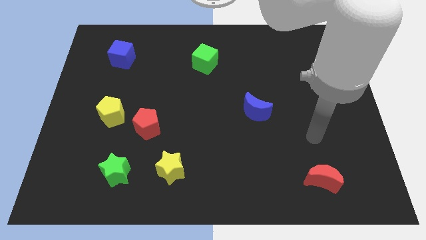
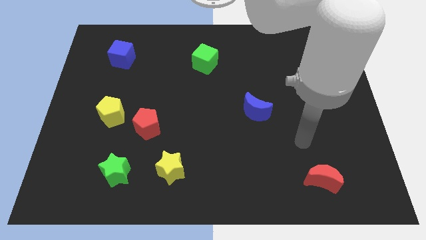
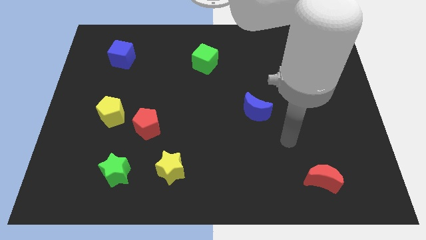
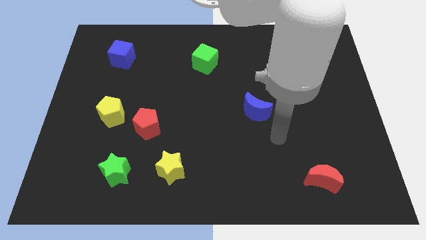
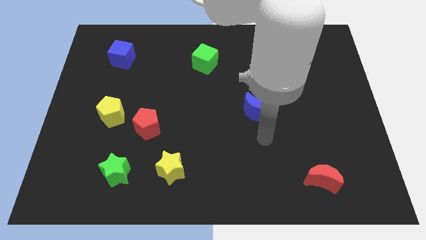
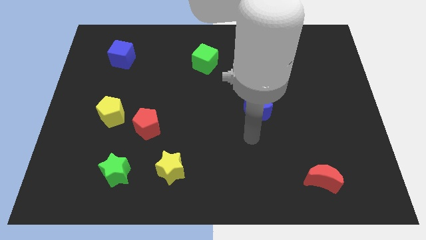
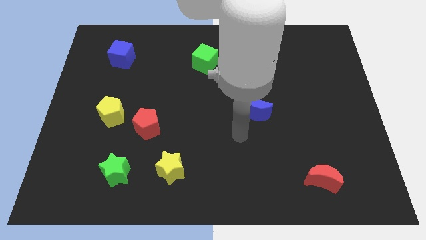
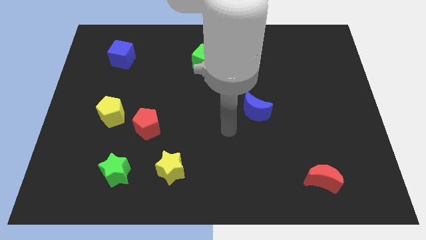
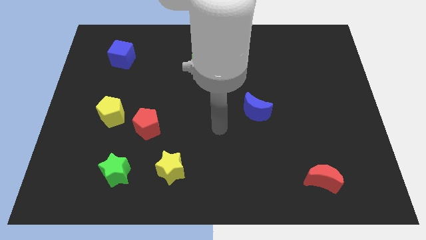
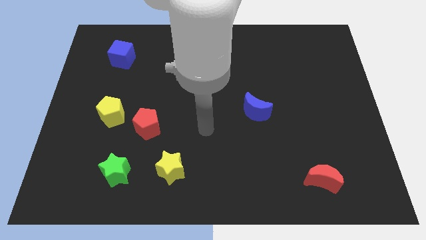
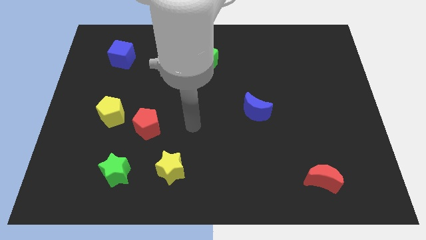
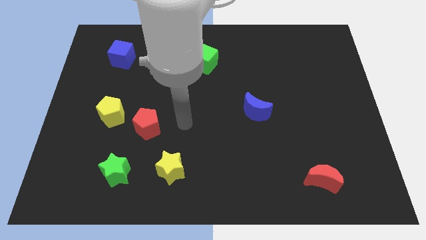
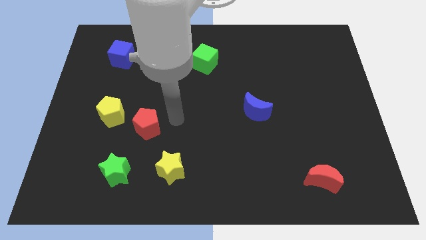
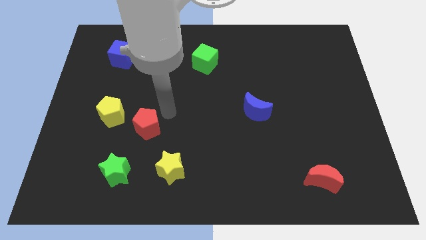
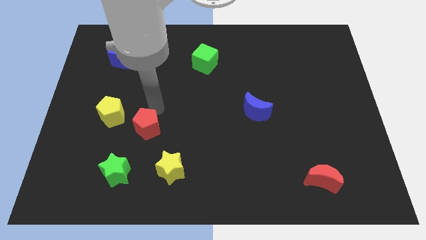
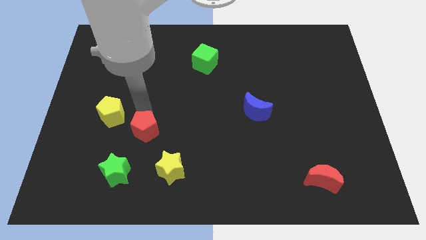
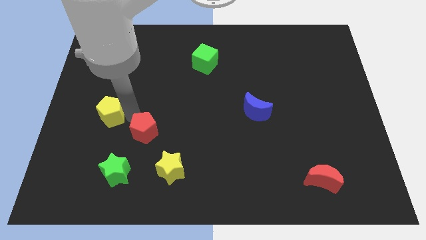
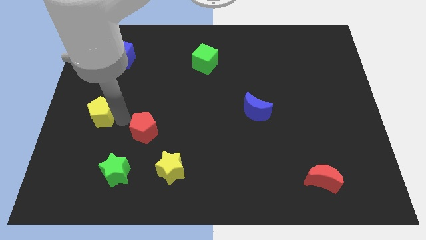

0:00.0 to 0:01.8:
pull the red pentagon apart from the yellow pentagon

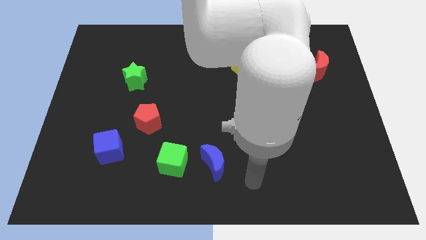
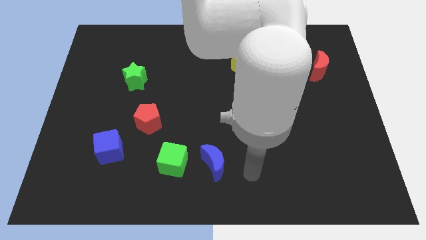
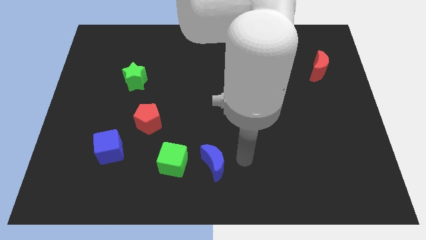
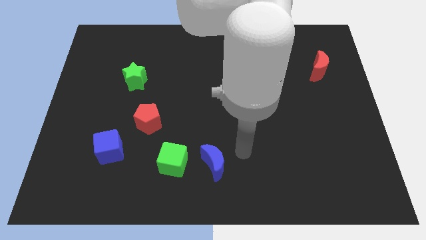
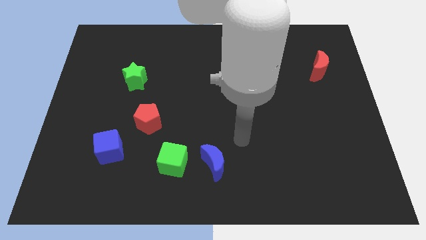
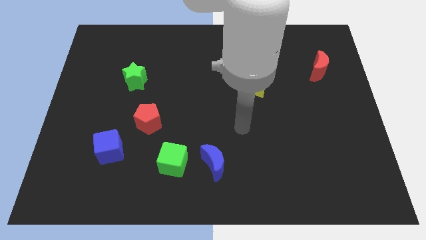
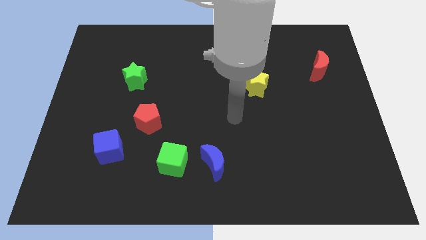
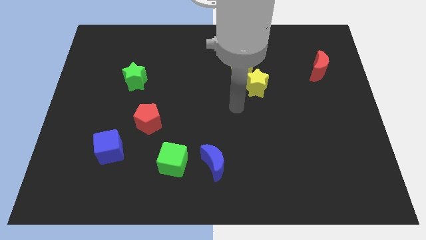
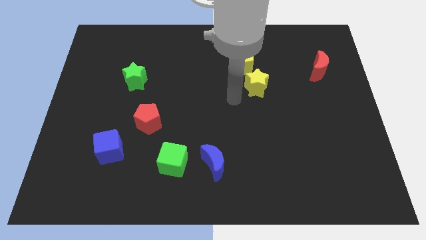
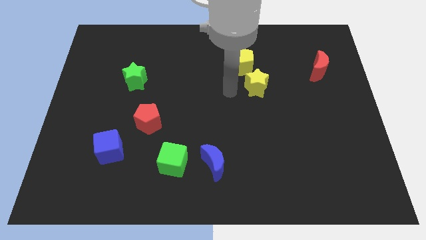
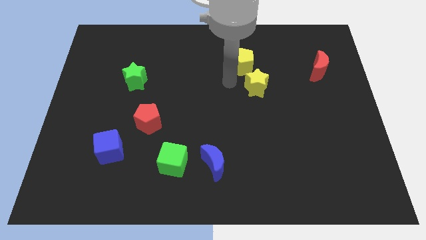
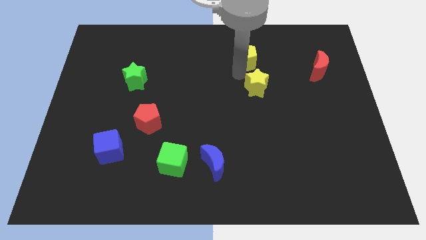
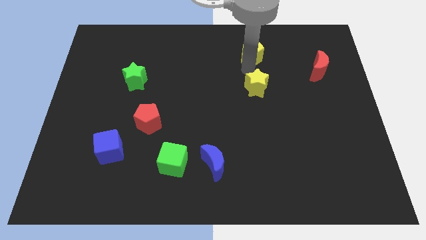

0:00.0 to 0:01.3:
move the yellow star away from the yellow pentagon

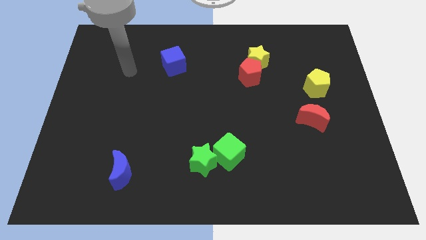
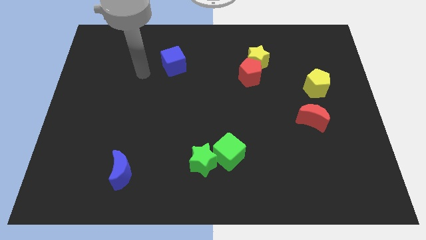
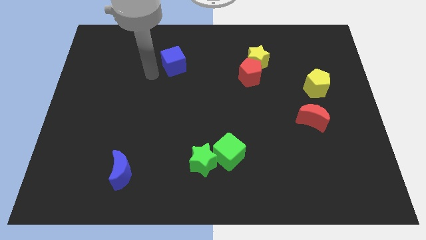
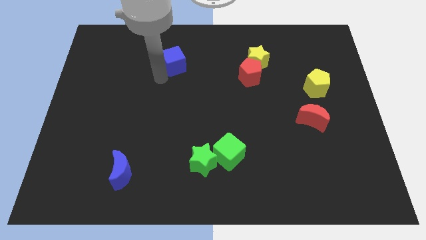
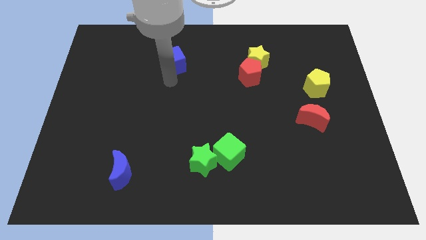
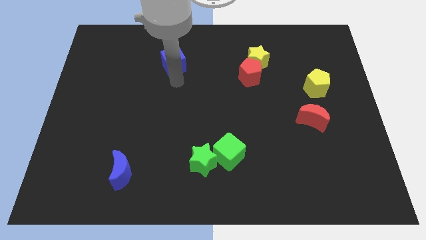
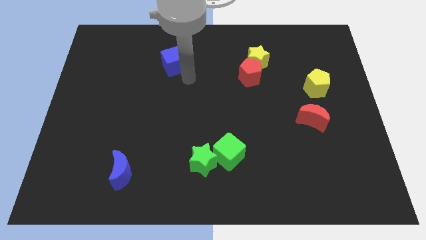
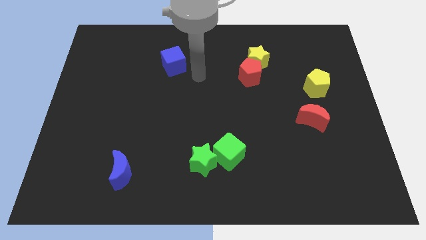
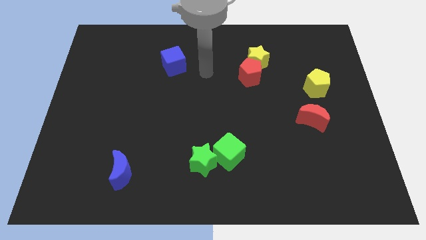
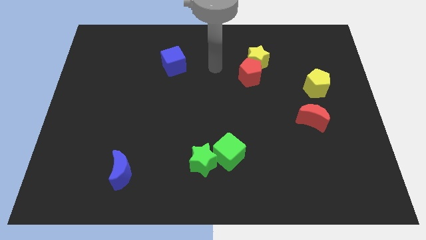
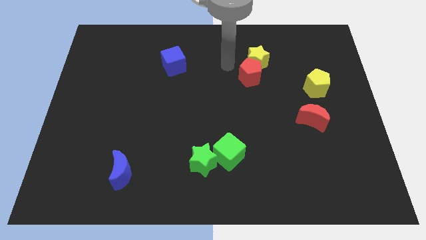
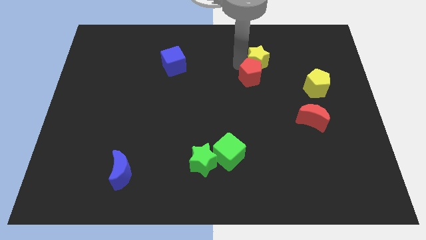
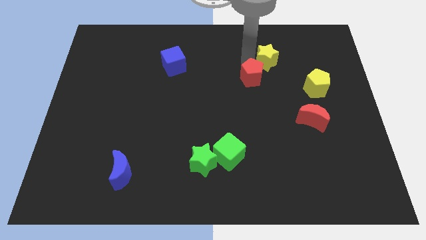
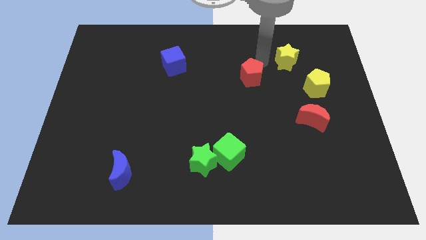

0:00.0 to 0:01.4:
separate the red pentagon from the yellow star

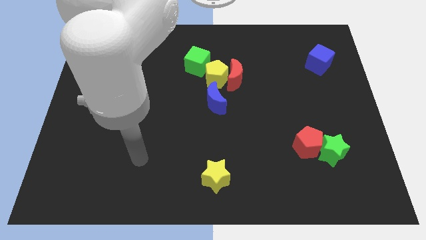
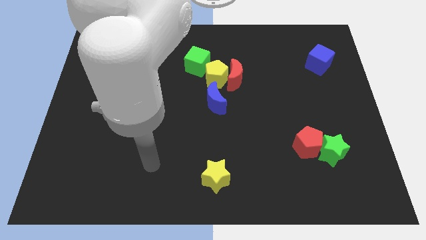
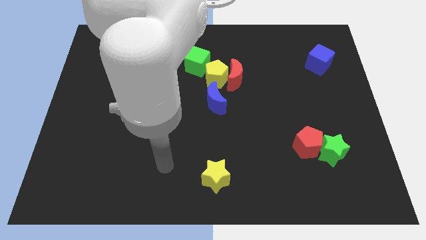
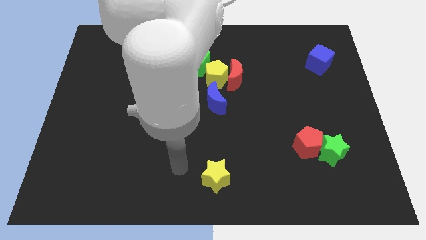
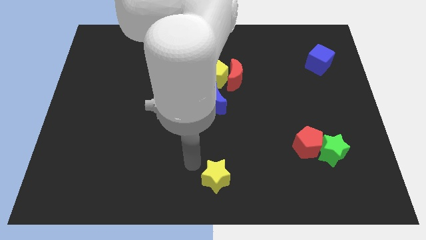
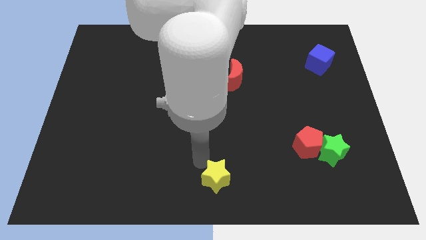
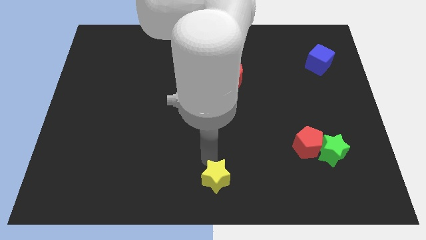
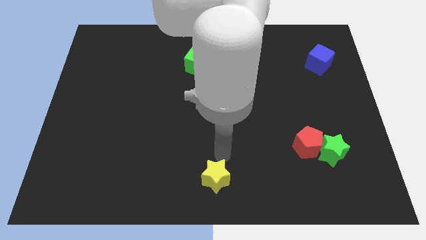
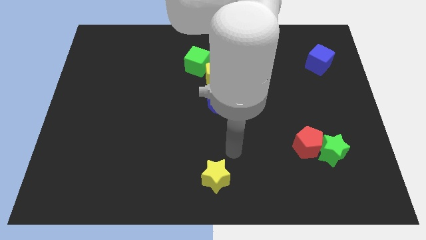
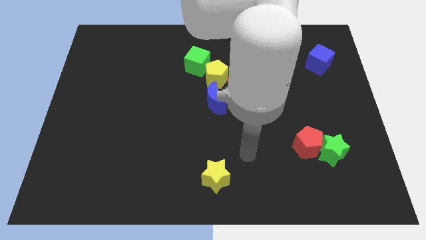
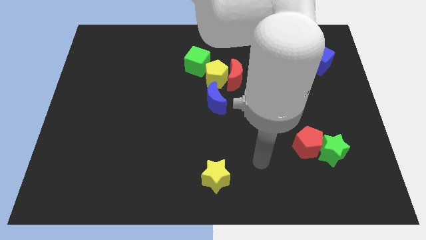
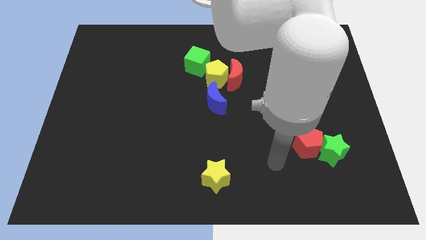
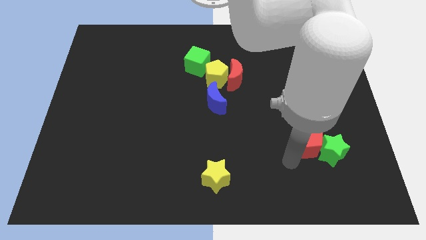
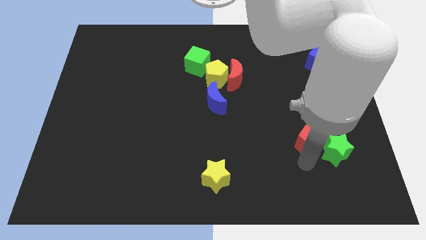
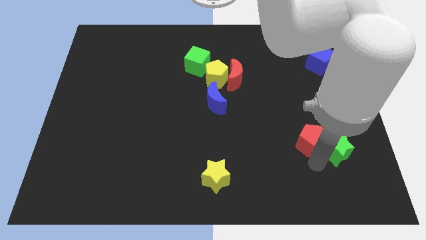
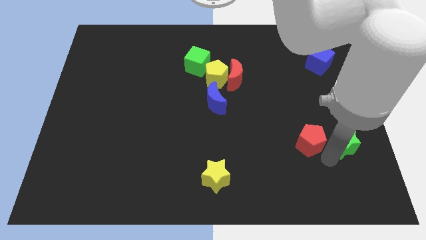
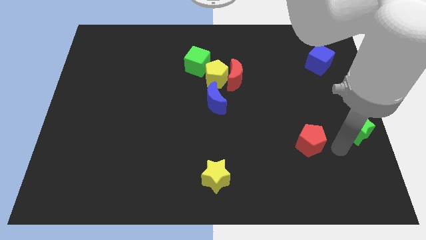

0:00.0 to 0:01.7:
separate the red pentagon from the green star

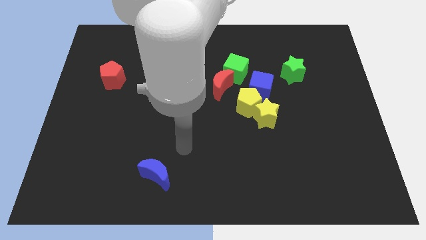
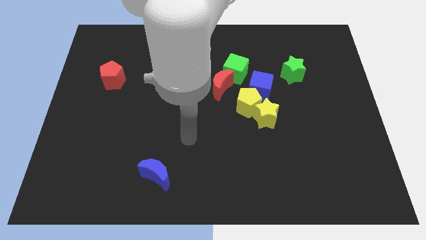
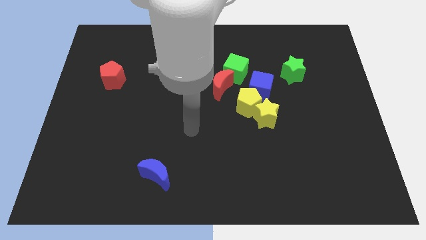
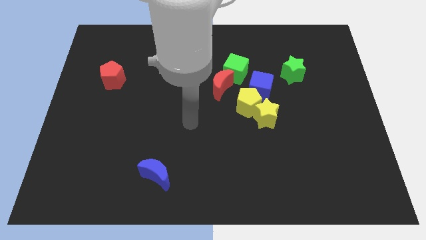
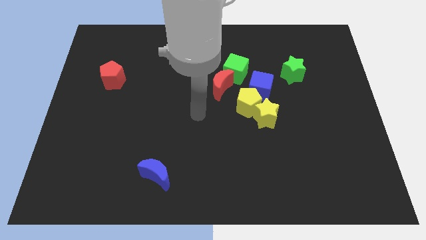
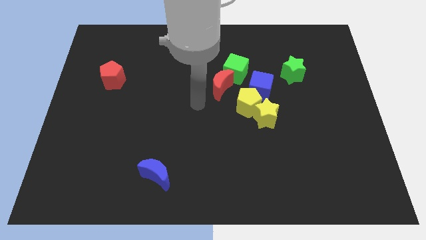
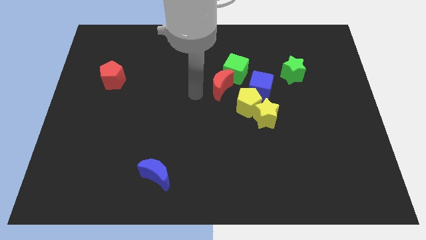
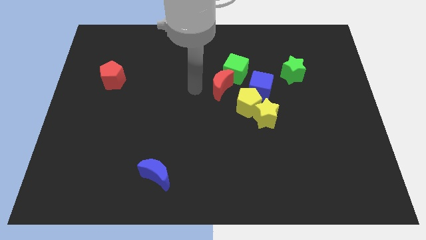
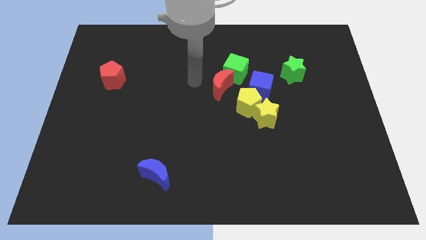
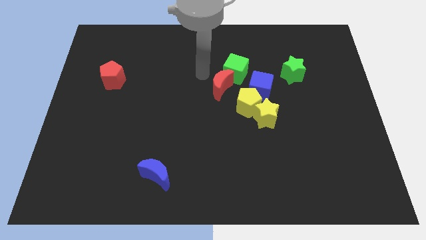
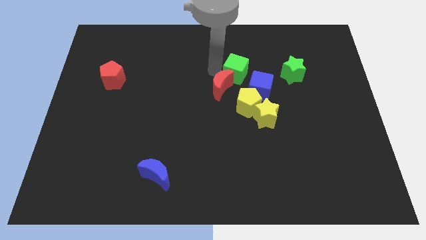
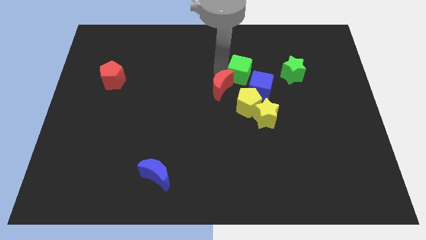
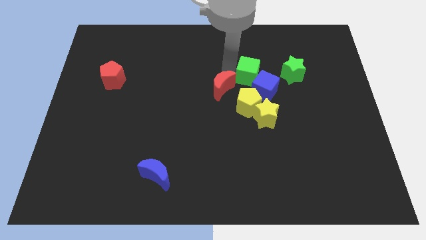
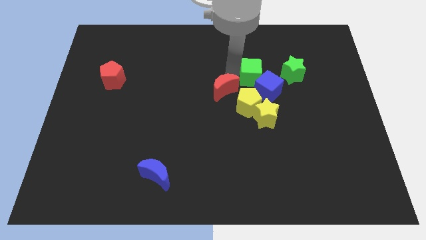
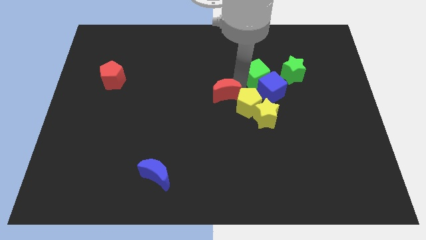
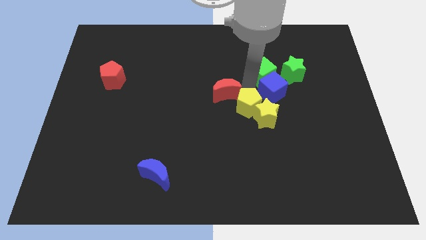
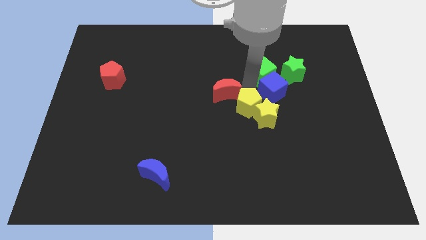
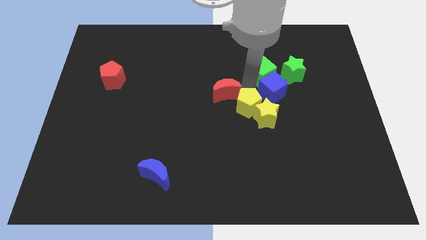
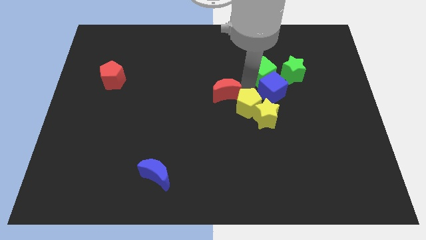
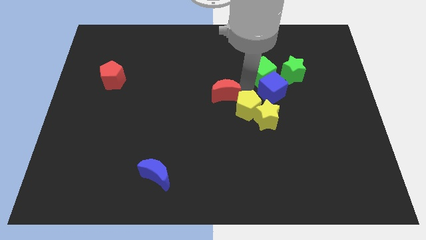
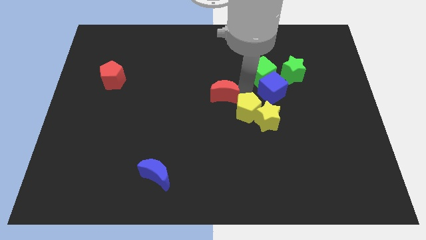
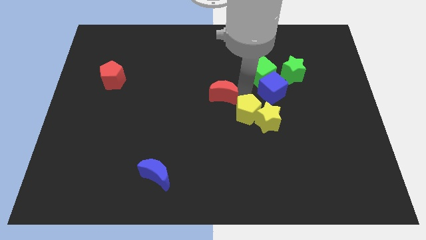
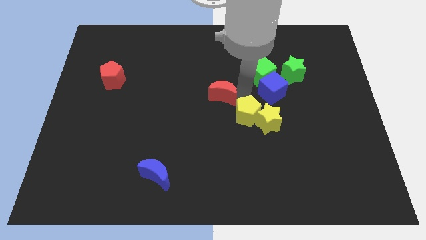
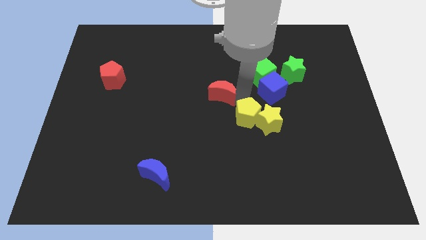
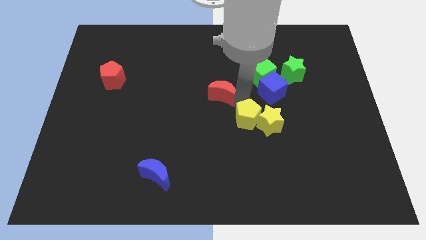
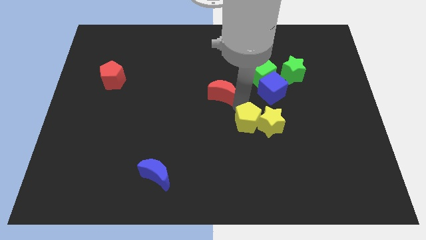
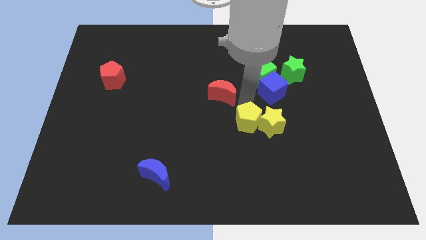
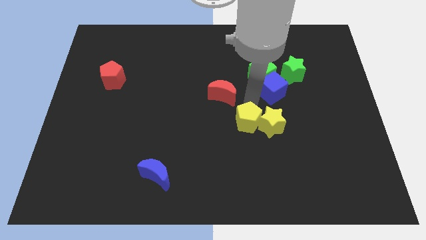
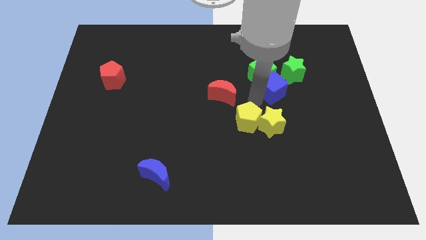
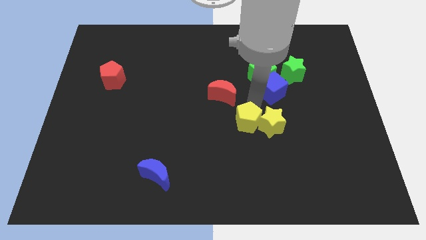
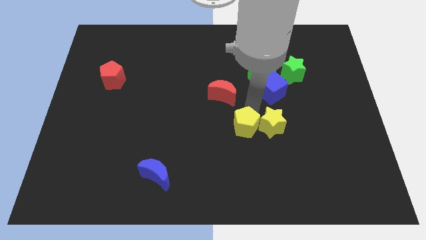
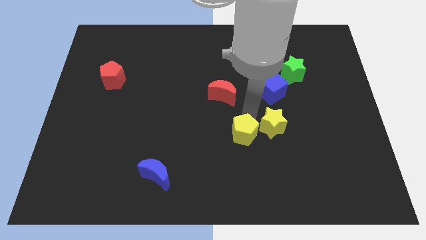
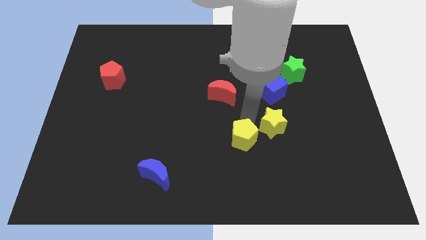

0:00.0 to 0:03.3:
separate the yellow pentagon from the yellow star, blue cube, and red moon
